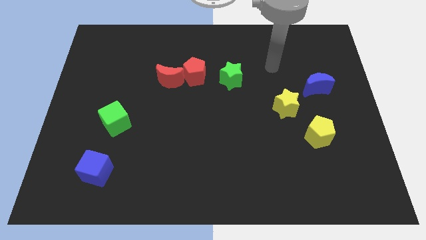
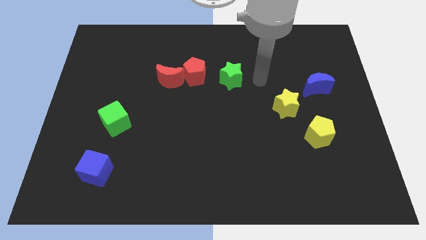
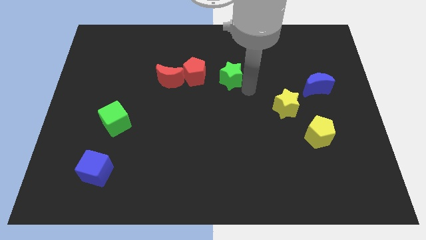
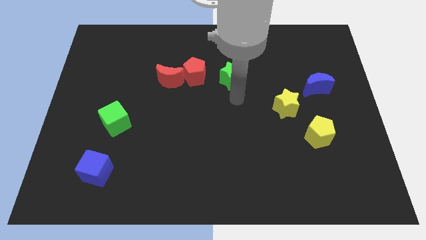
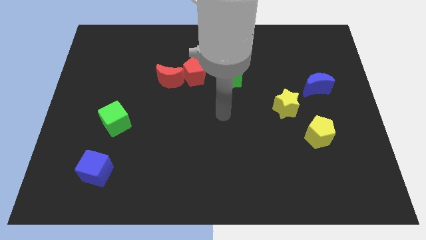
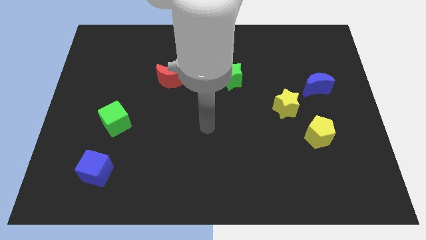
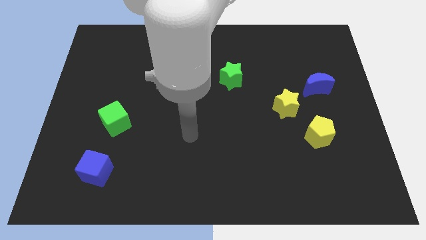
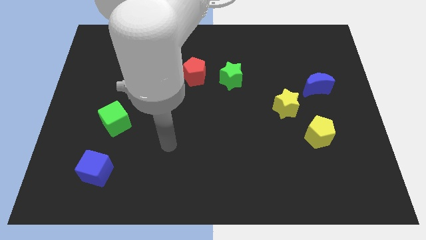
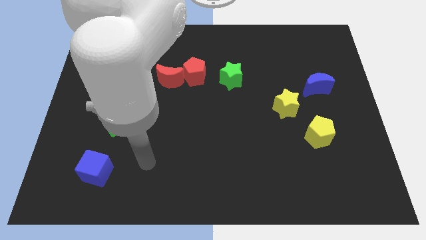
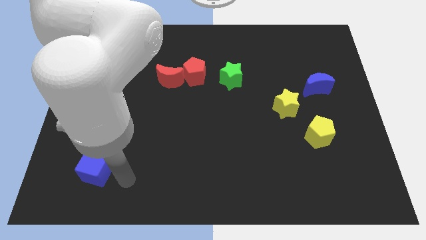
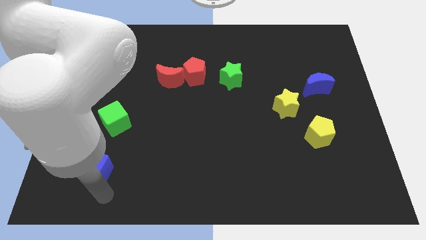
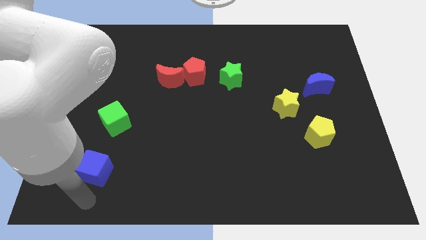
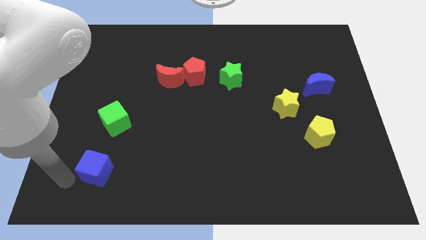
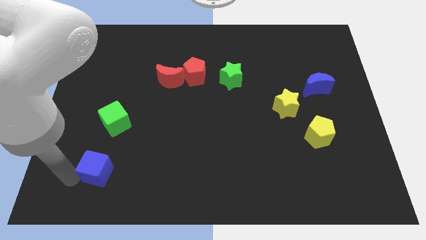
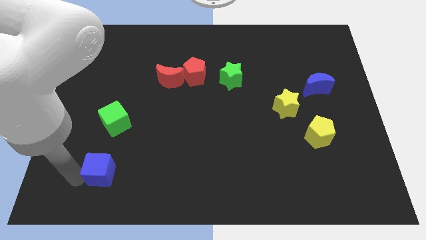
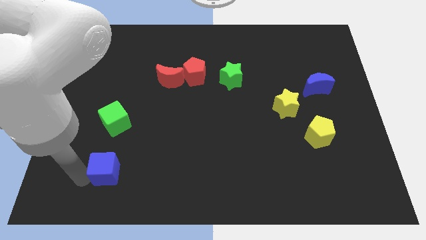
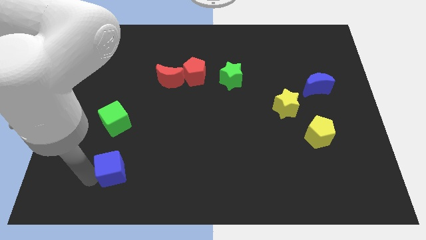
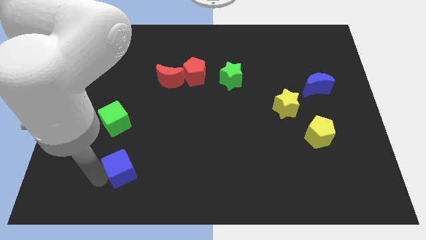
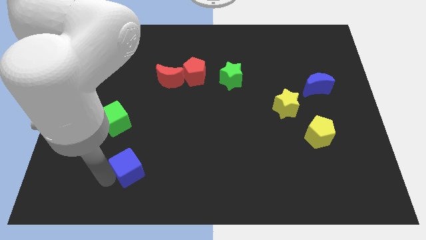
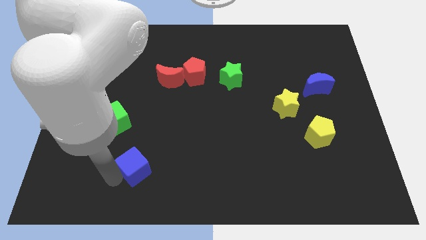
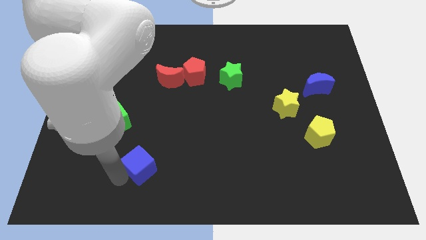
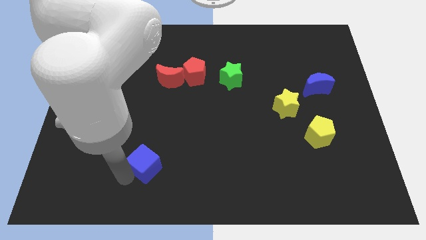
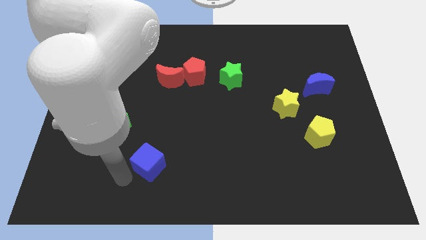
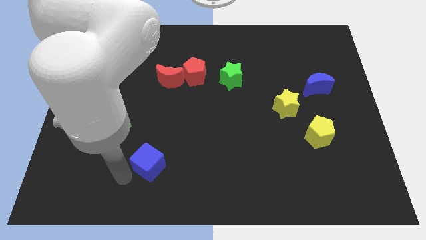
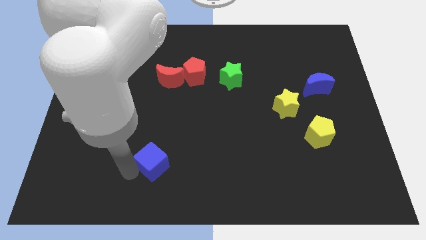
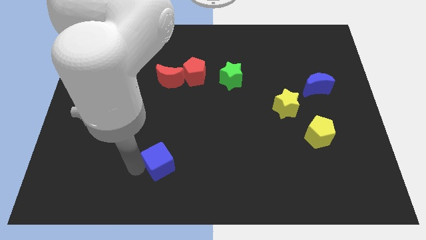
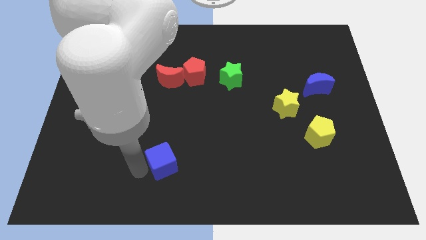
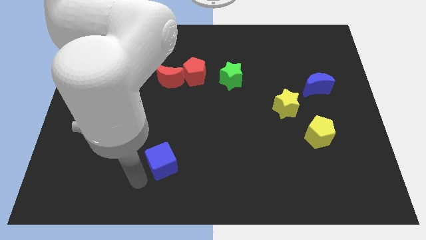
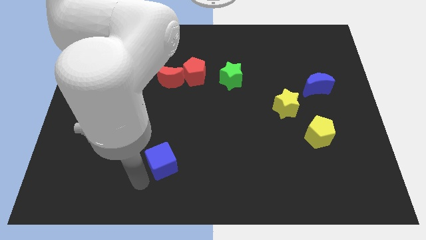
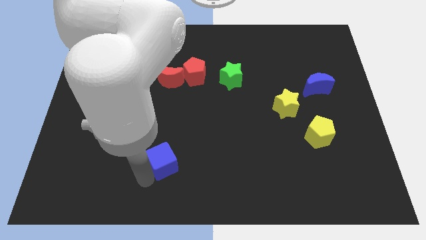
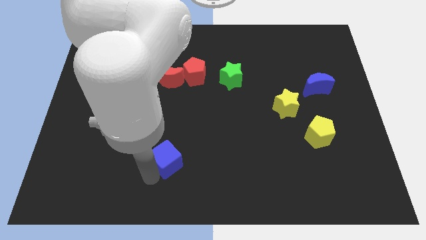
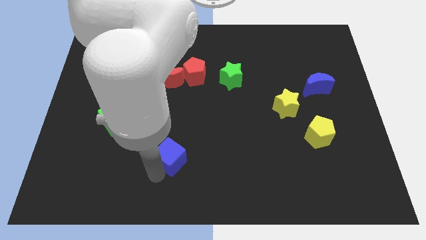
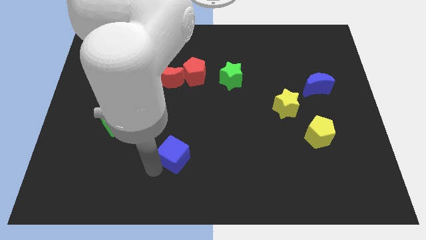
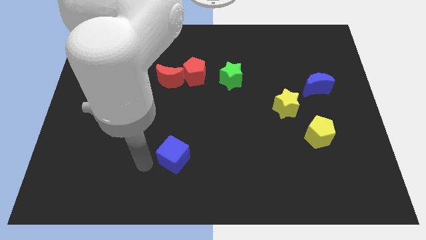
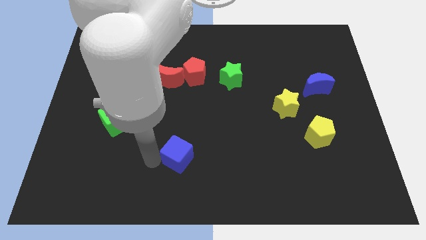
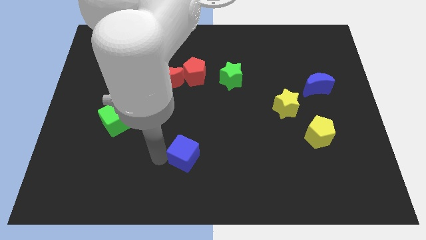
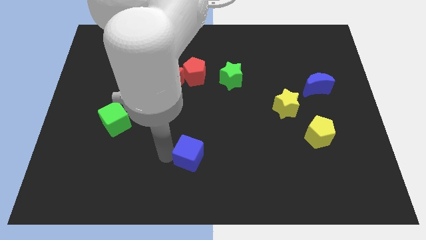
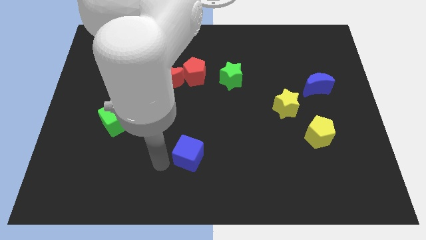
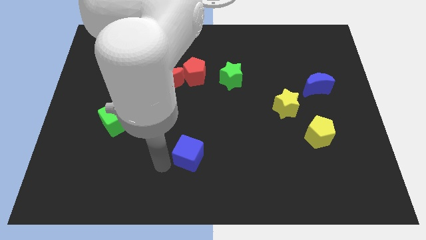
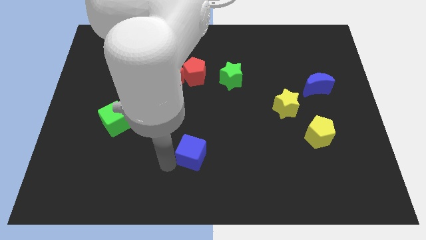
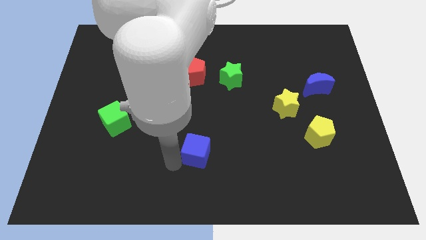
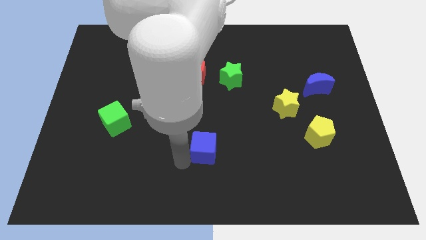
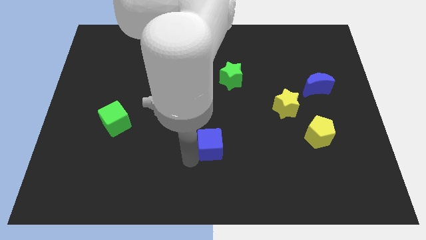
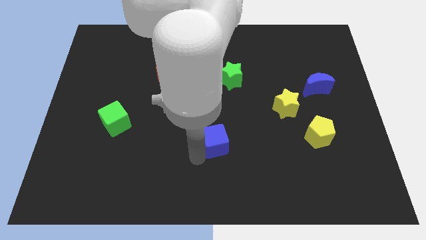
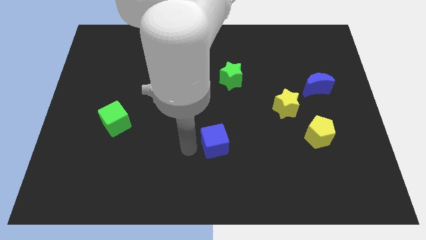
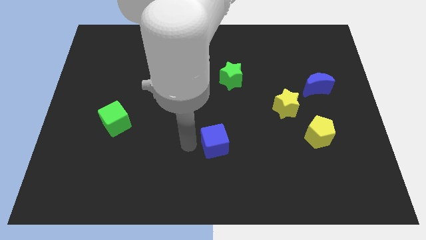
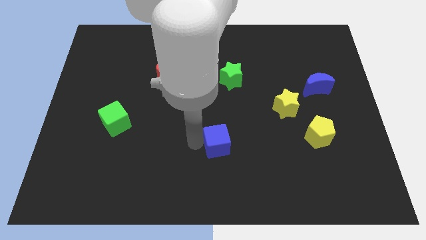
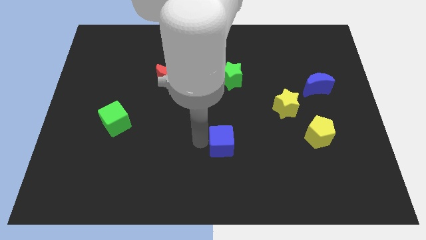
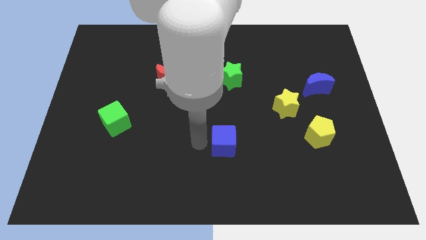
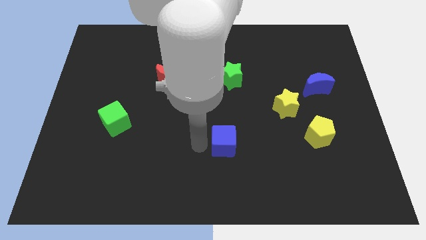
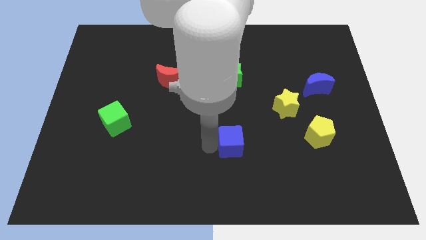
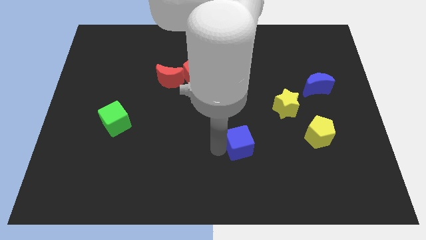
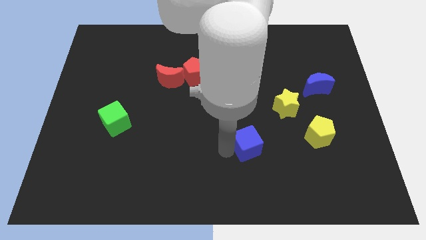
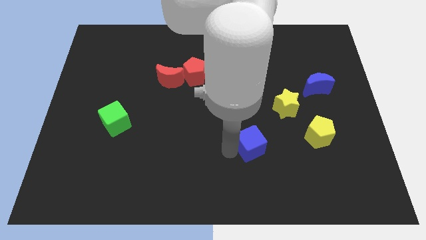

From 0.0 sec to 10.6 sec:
slide the blue cube to the left side of the yellow pentagon

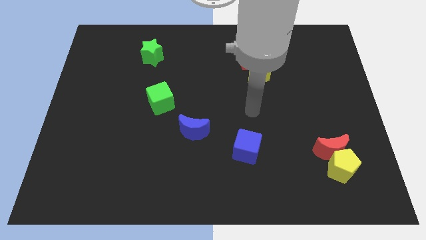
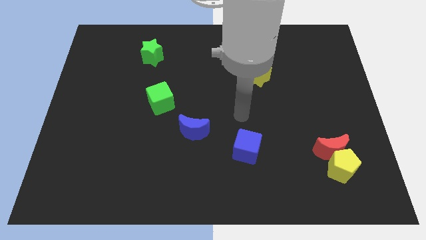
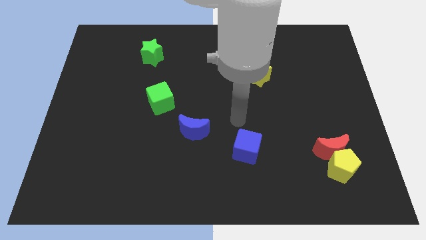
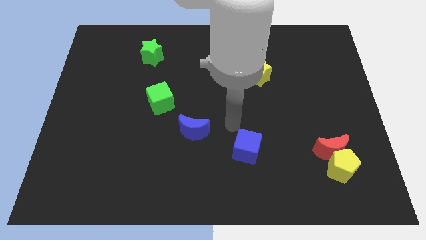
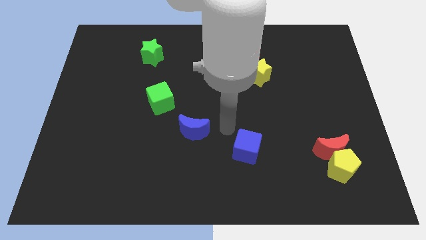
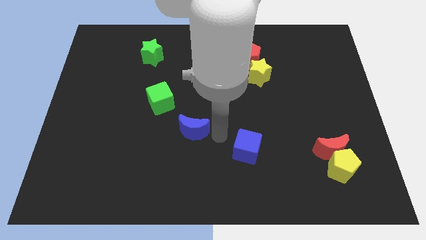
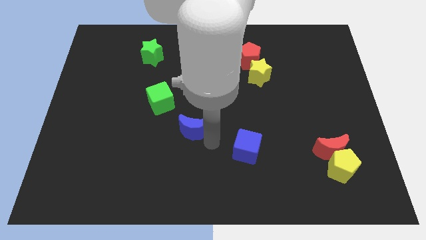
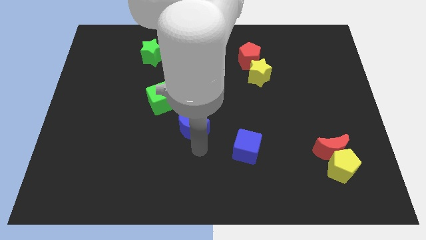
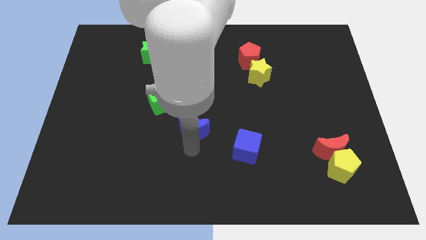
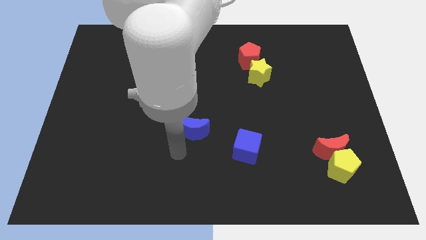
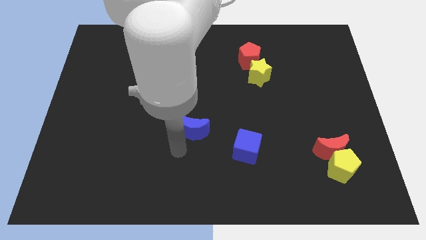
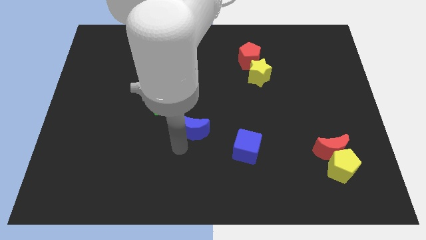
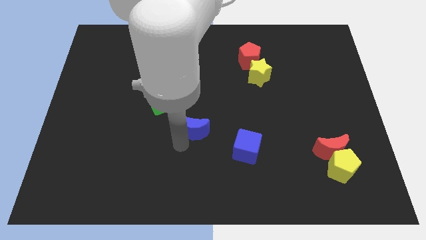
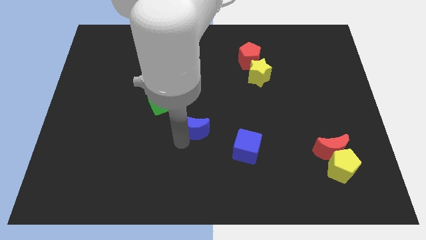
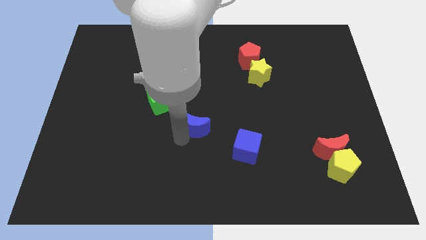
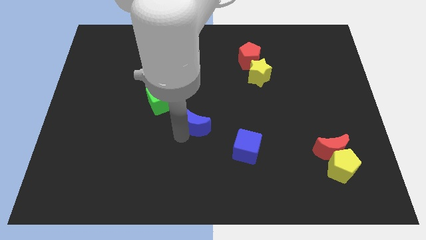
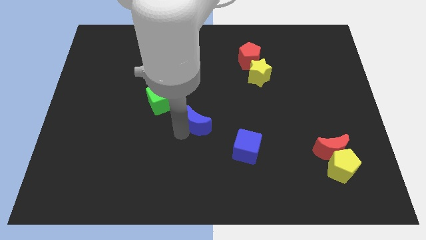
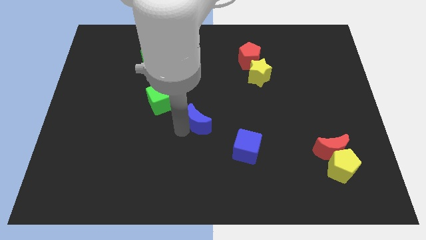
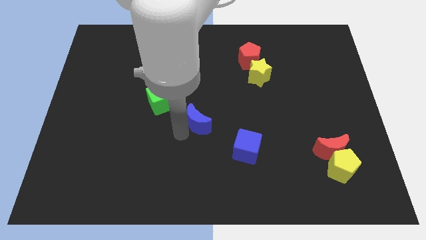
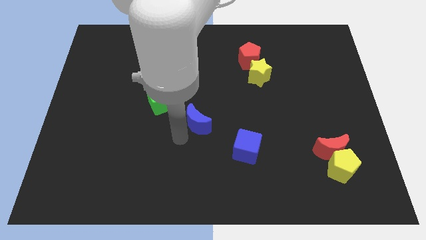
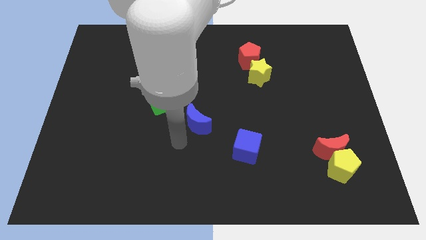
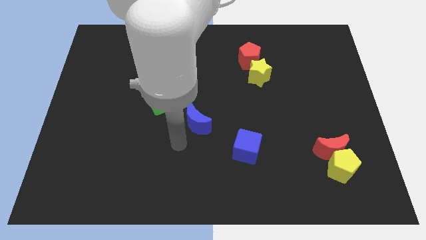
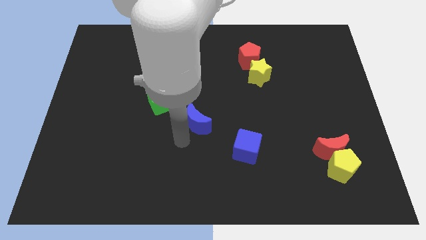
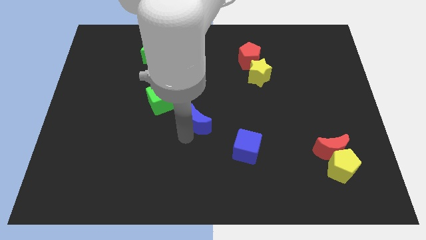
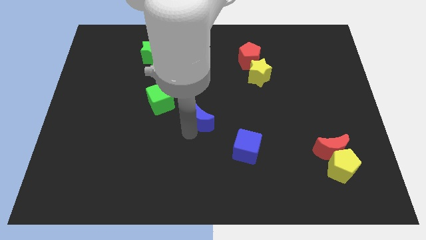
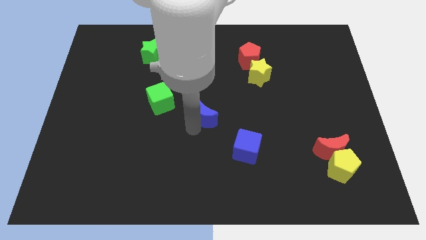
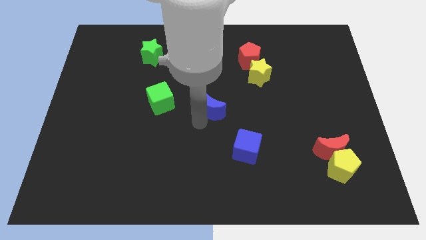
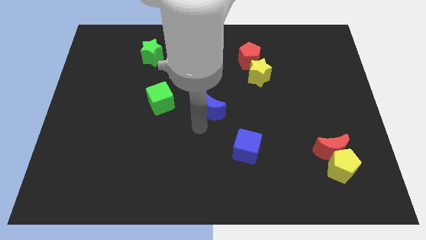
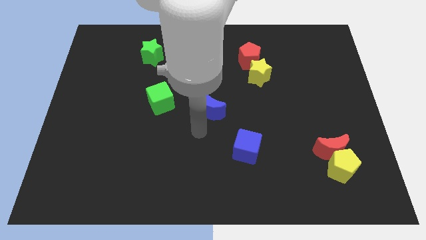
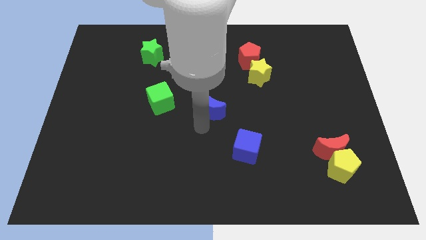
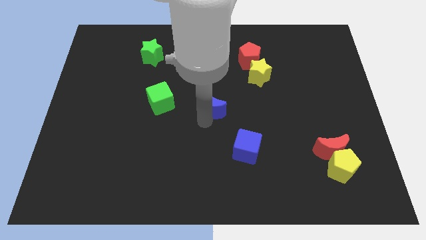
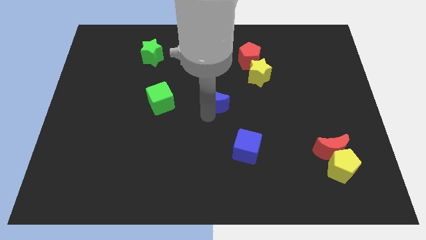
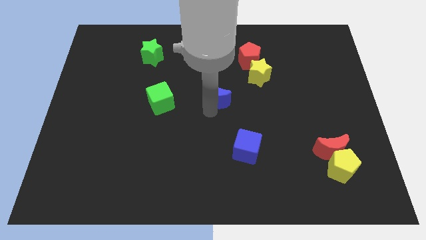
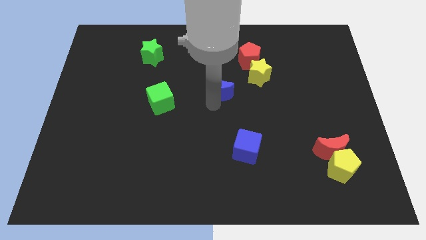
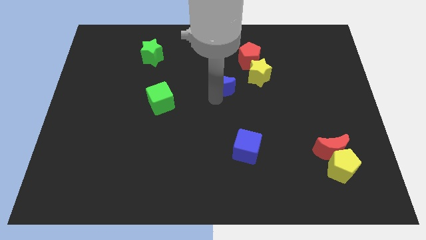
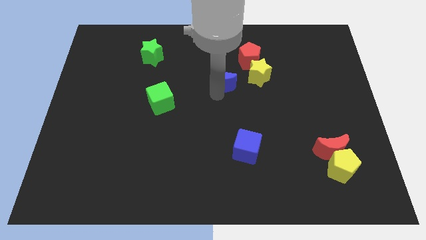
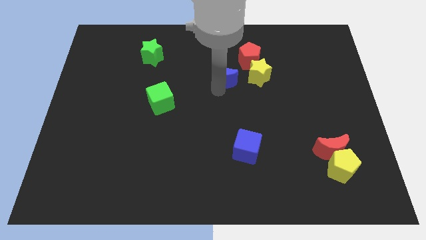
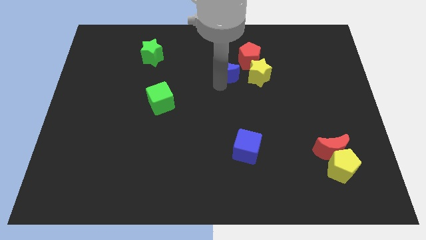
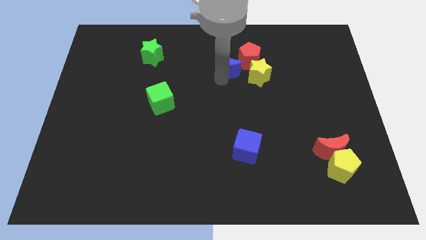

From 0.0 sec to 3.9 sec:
move the blue moon to the top left of the yellow star
